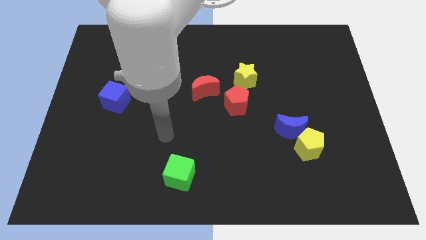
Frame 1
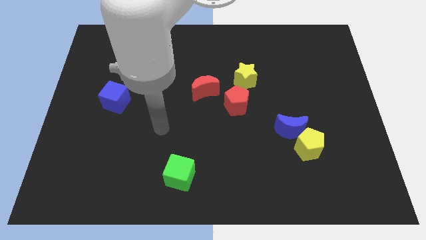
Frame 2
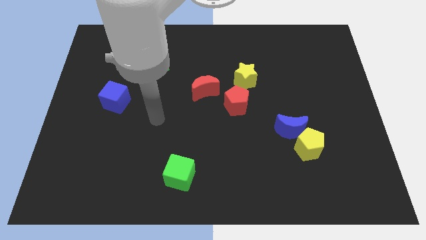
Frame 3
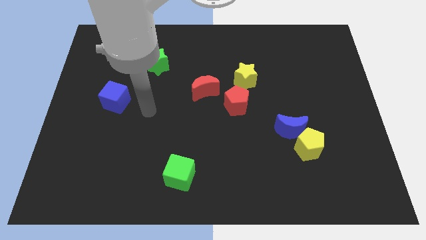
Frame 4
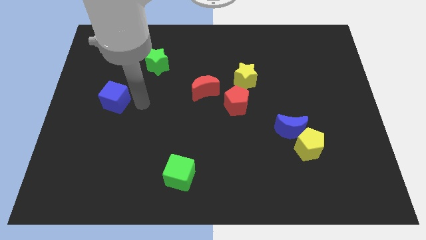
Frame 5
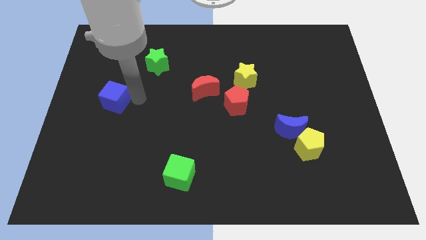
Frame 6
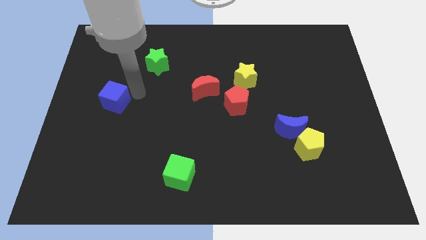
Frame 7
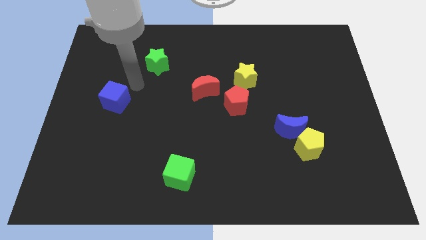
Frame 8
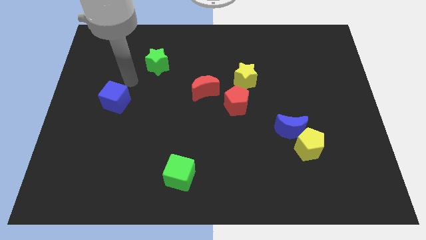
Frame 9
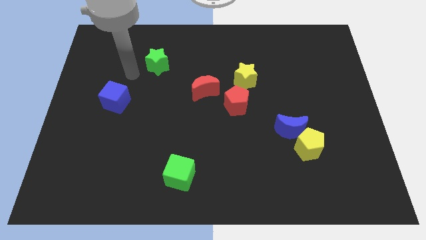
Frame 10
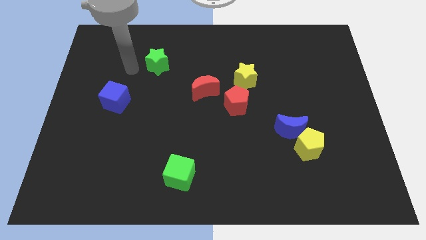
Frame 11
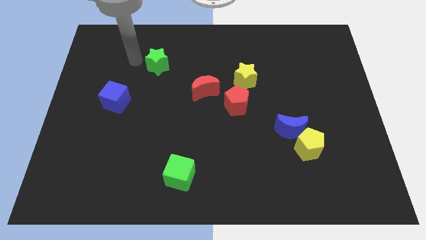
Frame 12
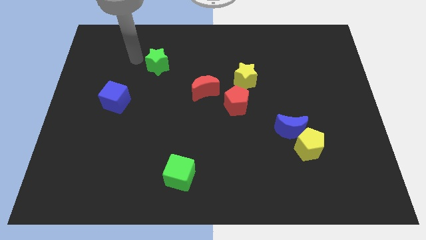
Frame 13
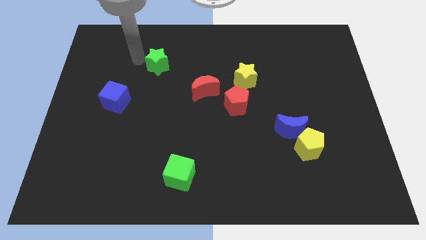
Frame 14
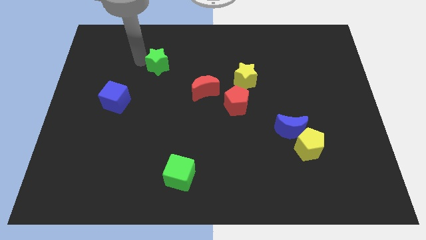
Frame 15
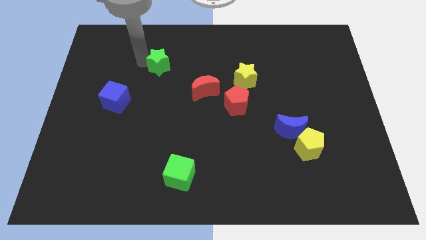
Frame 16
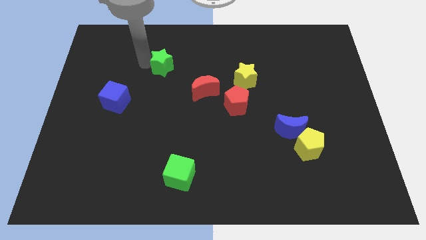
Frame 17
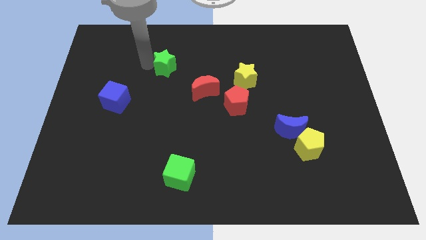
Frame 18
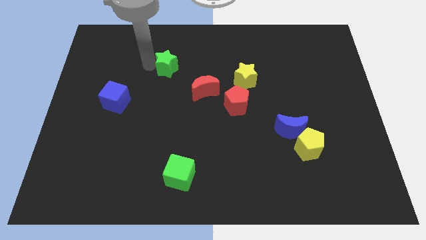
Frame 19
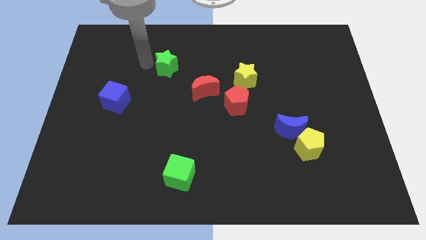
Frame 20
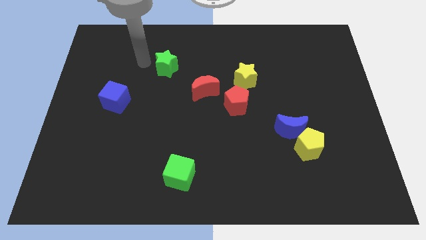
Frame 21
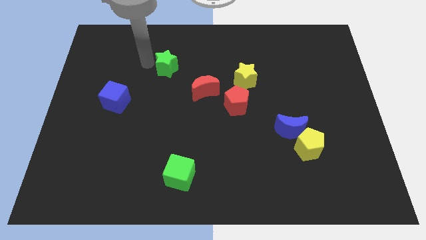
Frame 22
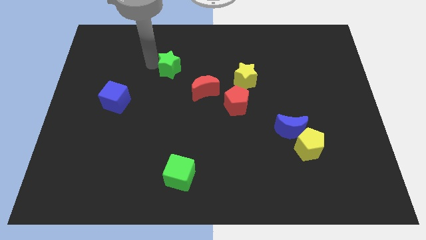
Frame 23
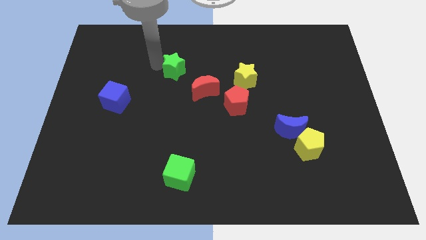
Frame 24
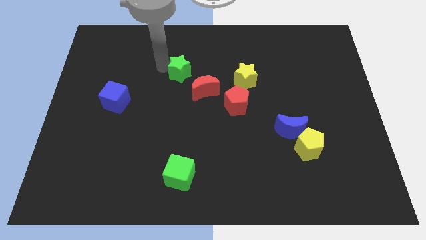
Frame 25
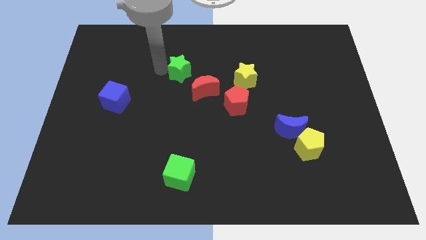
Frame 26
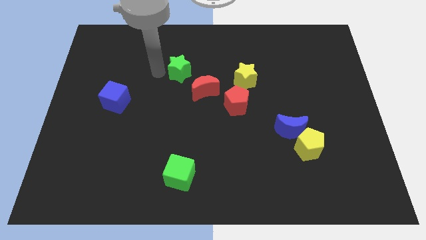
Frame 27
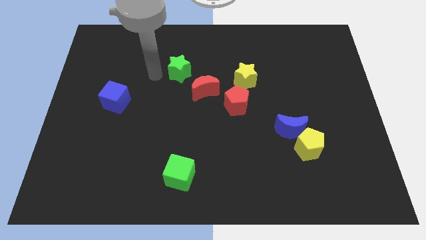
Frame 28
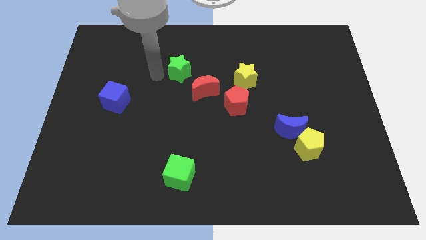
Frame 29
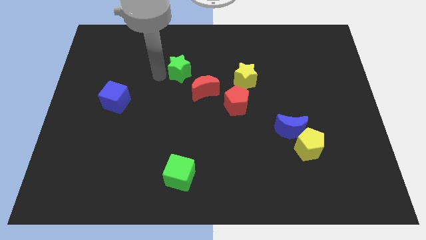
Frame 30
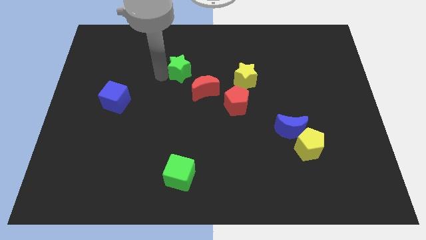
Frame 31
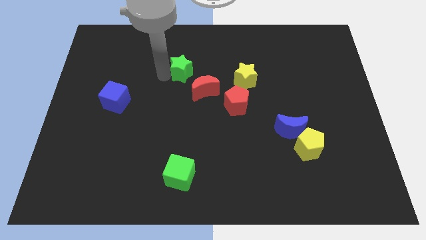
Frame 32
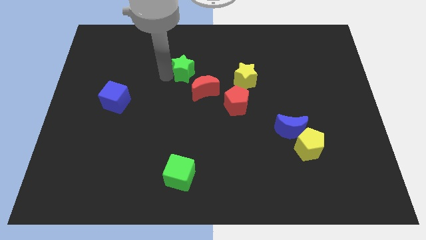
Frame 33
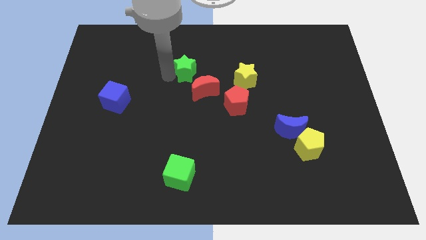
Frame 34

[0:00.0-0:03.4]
push the green star to the right slightly

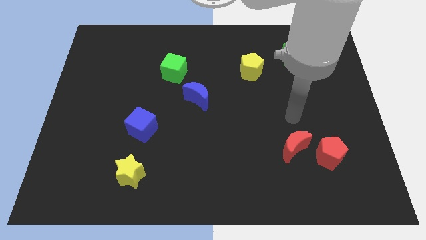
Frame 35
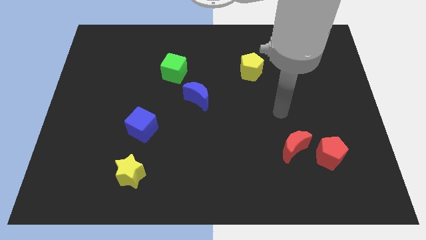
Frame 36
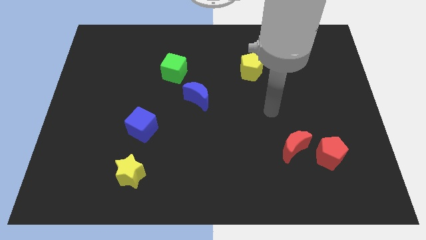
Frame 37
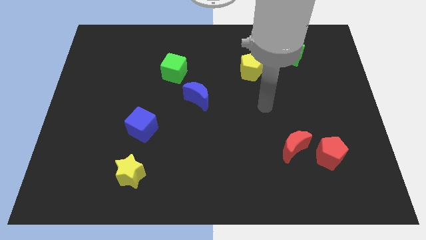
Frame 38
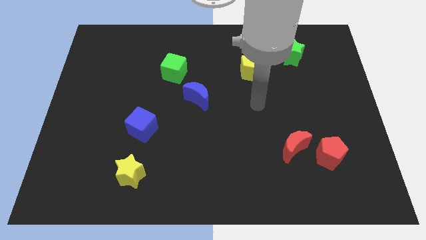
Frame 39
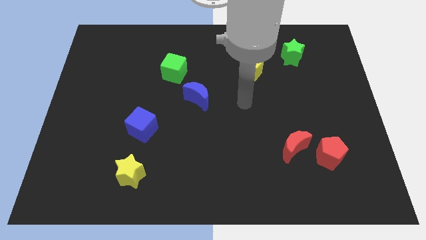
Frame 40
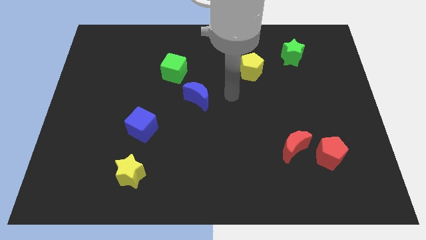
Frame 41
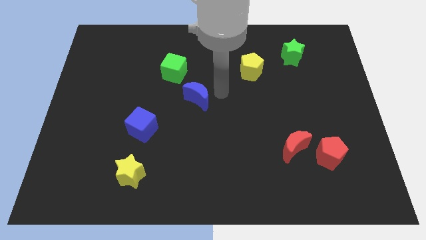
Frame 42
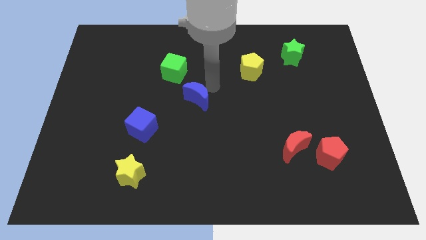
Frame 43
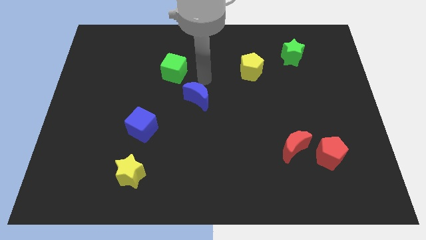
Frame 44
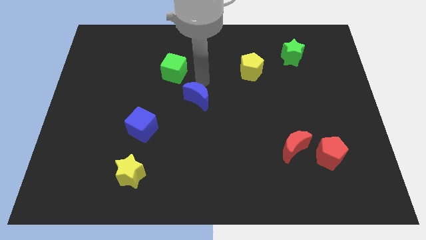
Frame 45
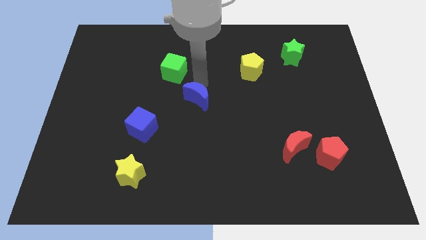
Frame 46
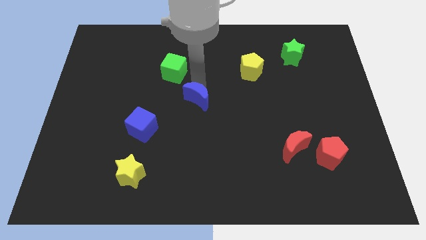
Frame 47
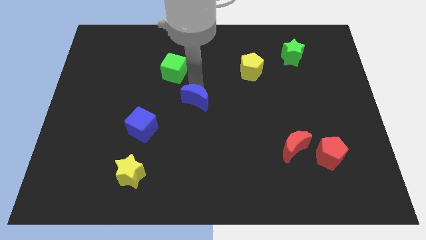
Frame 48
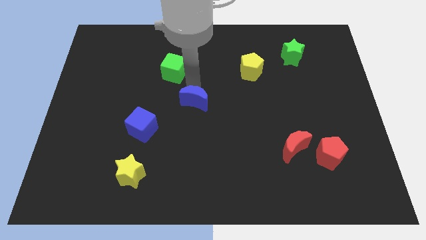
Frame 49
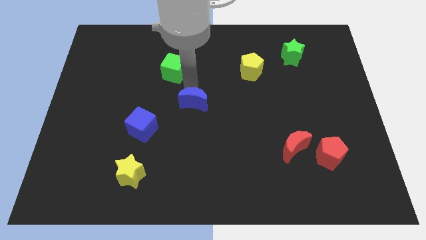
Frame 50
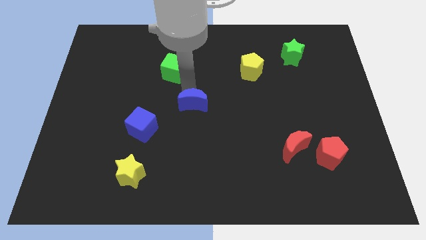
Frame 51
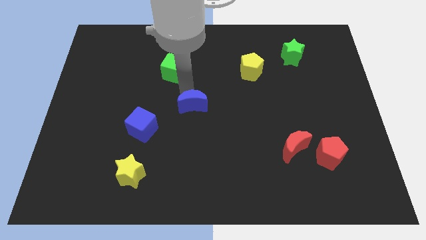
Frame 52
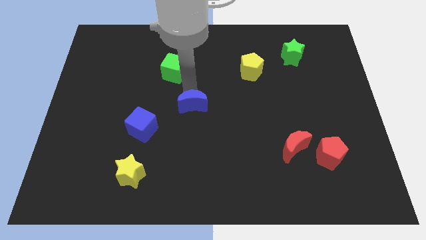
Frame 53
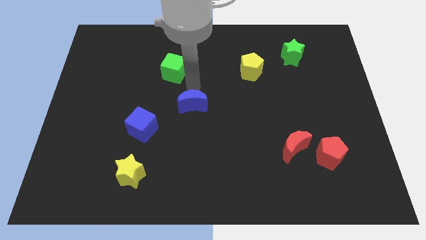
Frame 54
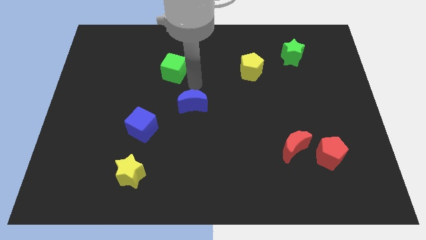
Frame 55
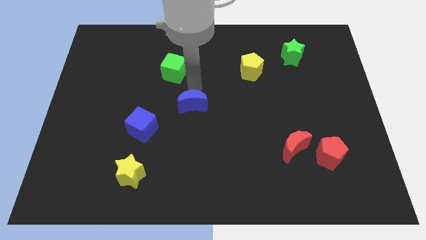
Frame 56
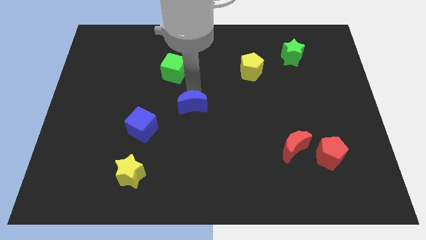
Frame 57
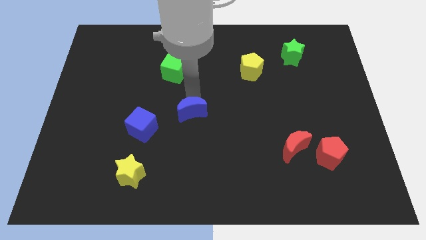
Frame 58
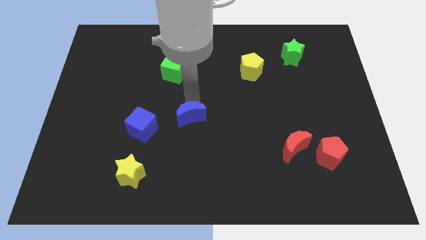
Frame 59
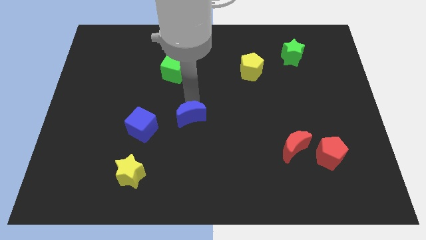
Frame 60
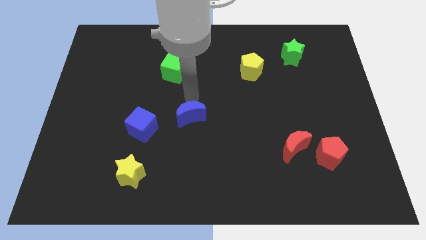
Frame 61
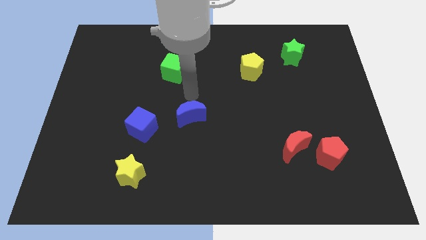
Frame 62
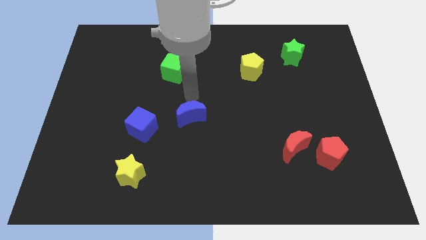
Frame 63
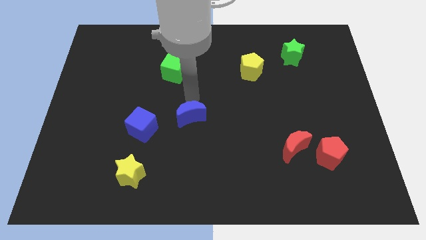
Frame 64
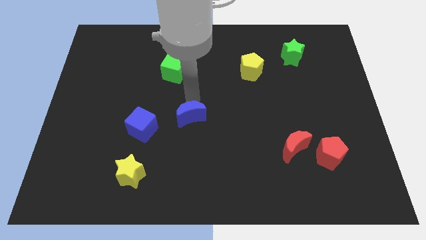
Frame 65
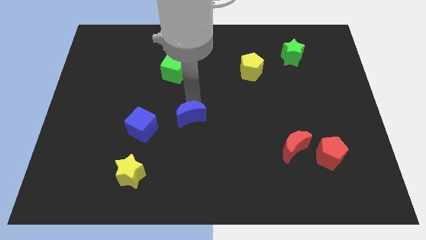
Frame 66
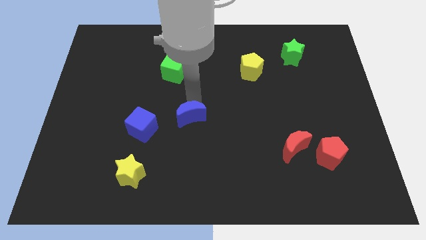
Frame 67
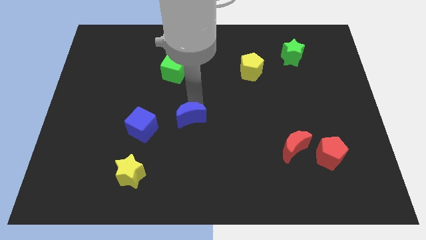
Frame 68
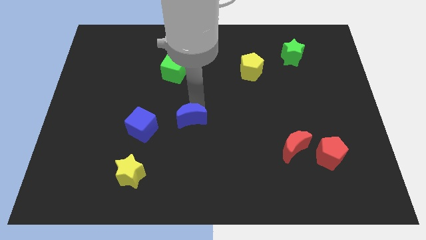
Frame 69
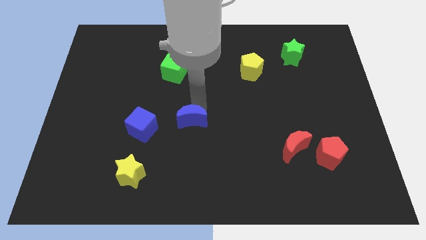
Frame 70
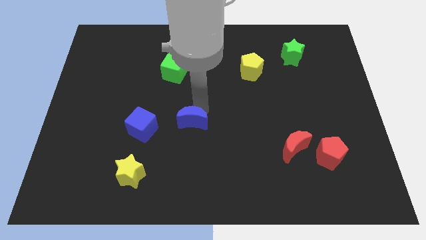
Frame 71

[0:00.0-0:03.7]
move the blue moon downwards a bit

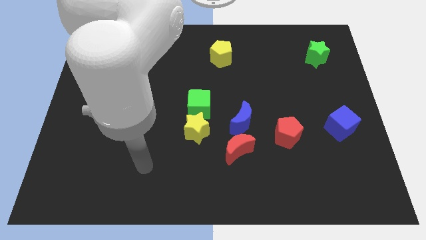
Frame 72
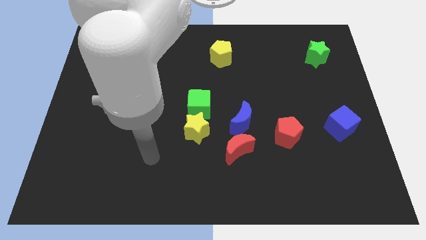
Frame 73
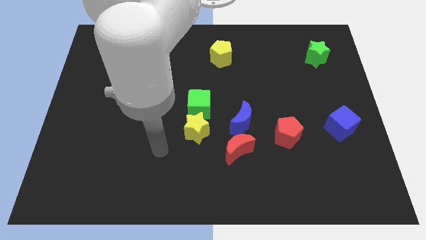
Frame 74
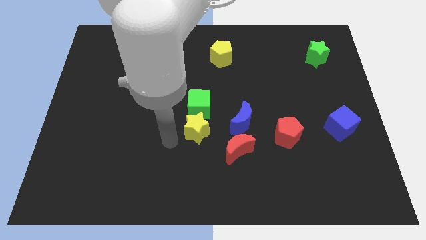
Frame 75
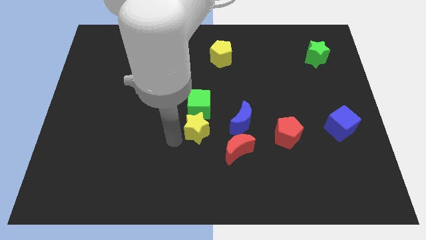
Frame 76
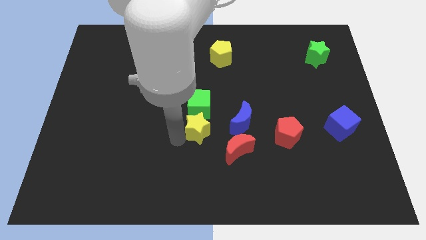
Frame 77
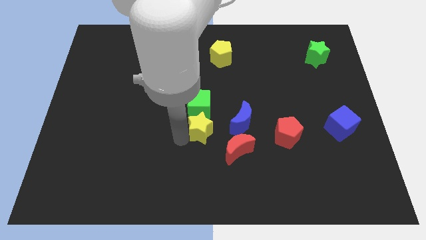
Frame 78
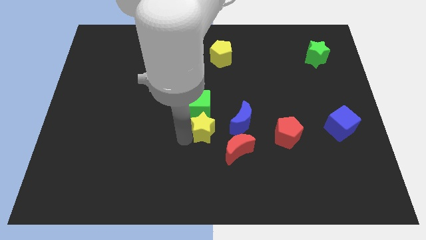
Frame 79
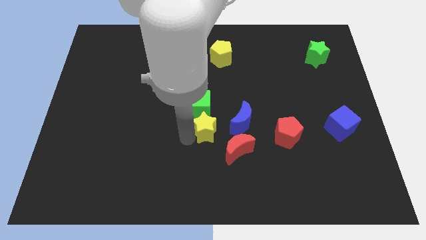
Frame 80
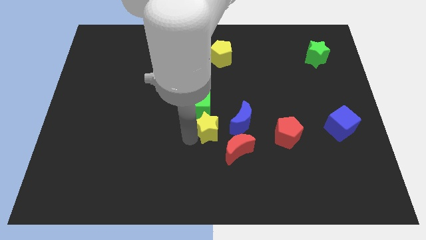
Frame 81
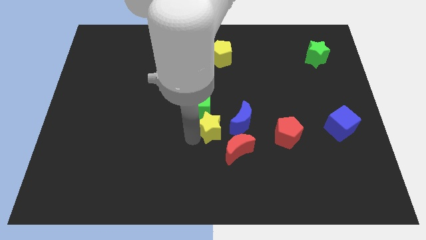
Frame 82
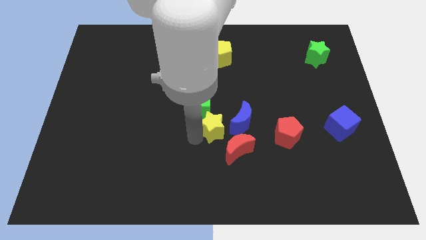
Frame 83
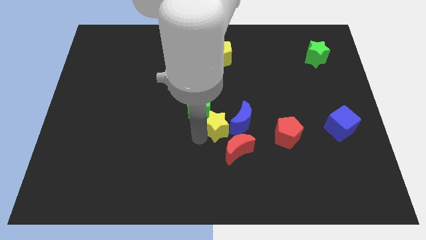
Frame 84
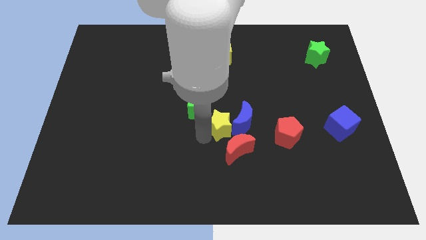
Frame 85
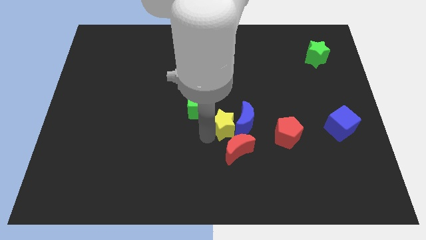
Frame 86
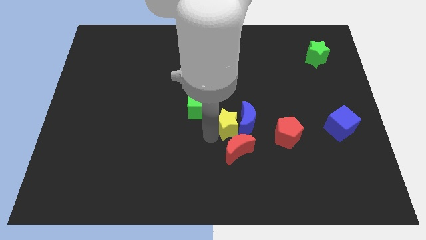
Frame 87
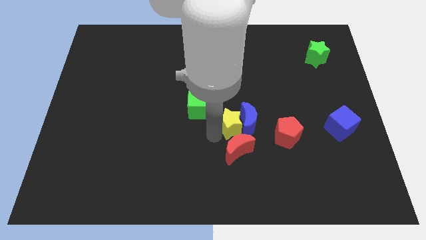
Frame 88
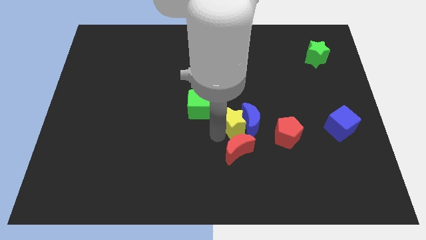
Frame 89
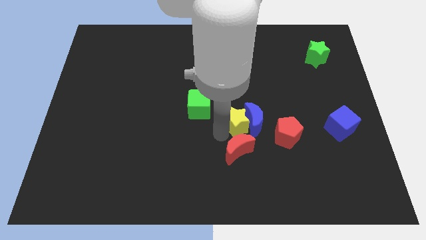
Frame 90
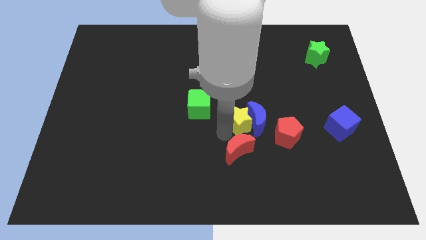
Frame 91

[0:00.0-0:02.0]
push the yellow star slightly up and right
